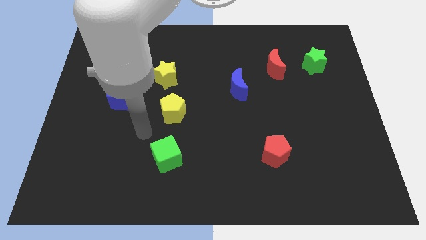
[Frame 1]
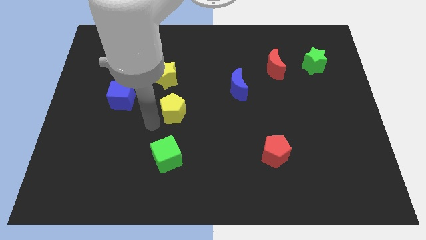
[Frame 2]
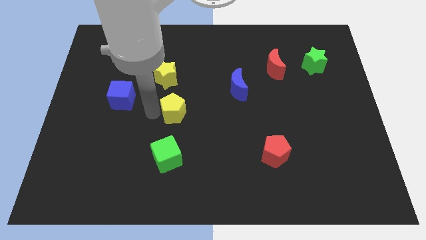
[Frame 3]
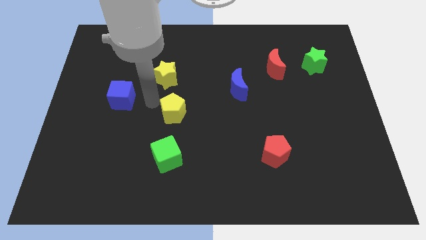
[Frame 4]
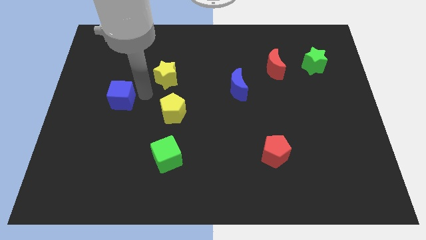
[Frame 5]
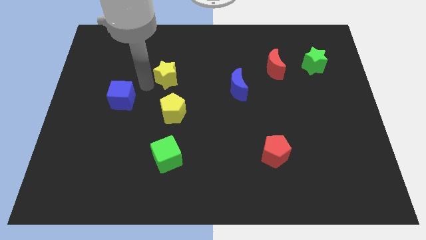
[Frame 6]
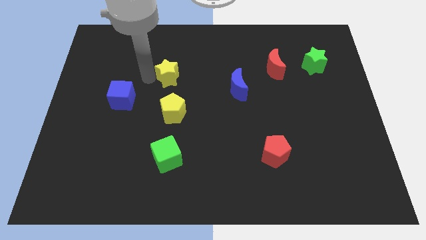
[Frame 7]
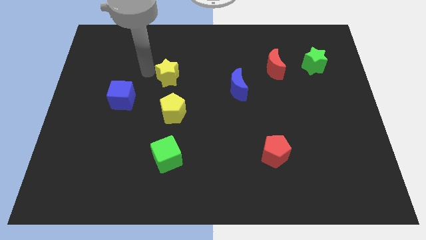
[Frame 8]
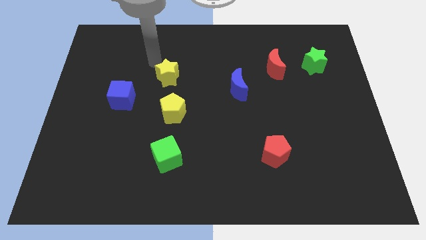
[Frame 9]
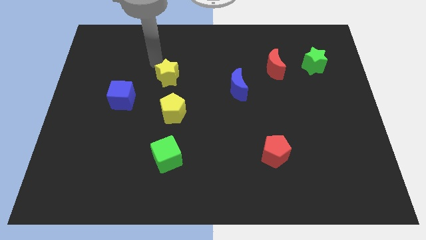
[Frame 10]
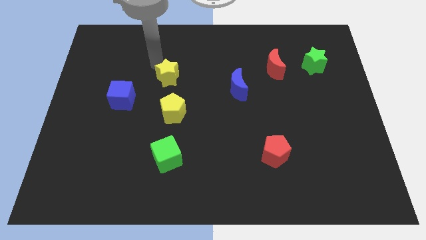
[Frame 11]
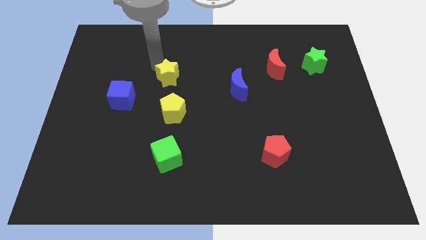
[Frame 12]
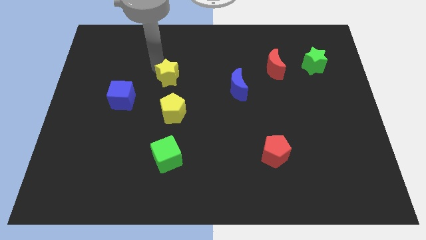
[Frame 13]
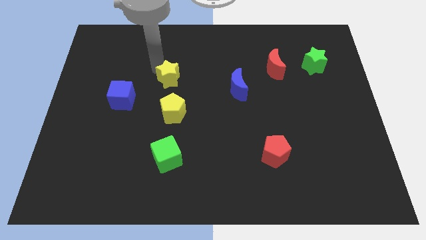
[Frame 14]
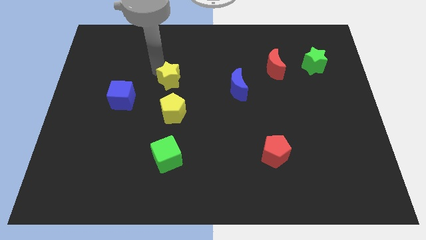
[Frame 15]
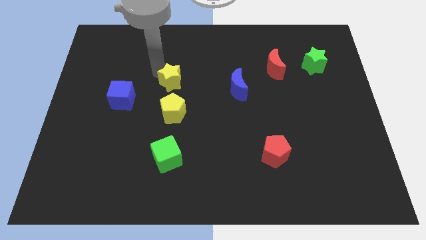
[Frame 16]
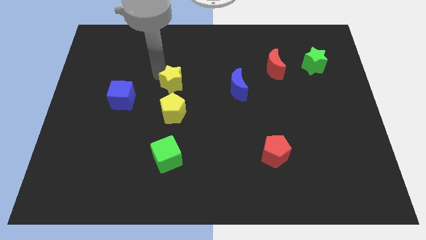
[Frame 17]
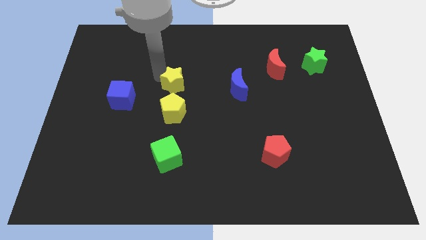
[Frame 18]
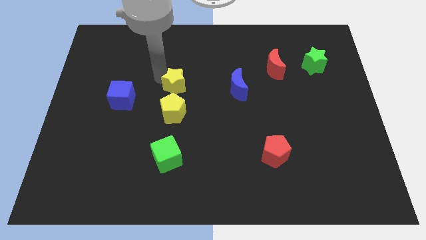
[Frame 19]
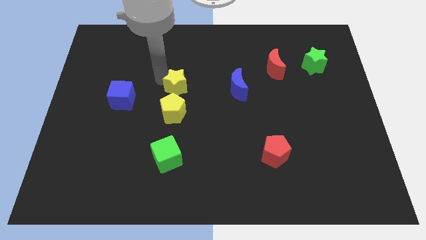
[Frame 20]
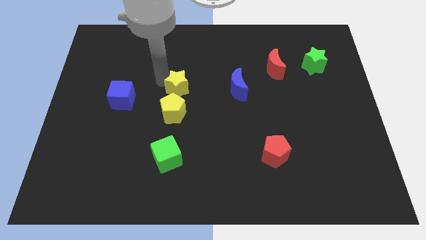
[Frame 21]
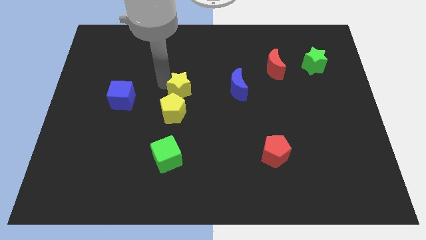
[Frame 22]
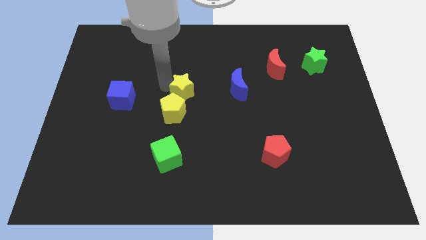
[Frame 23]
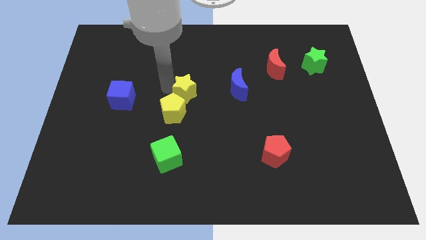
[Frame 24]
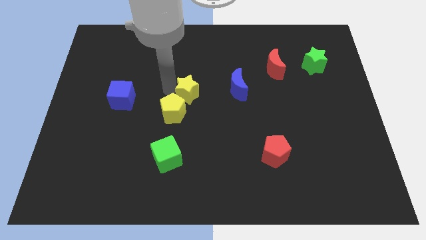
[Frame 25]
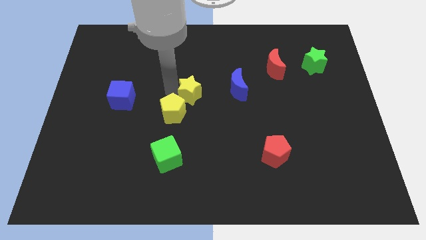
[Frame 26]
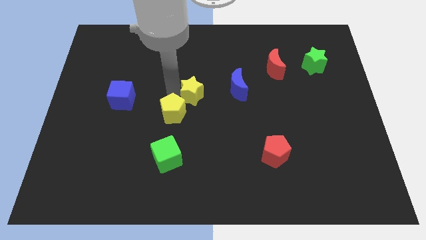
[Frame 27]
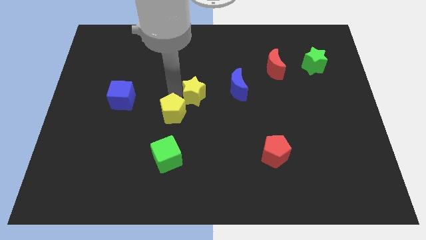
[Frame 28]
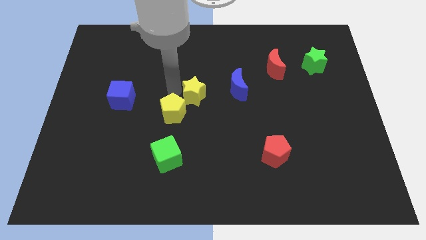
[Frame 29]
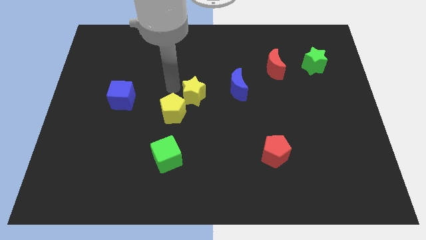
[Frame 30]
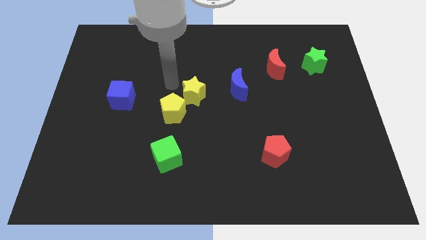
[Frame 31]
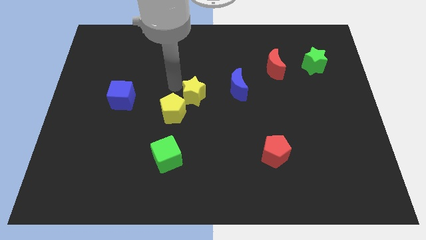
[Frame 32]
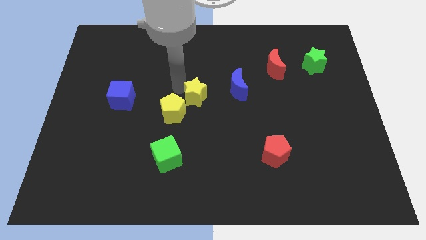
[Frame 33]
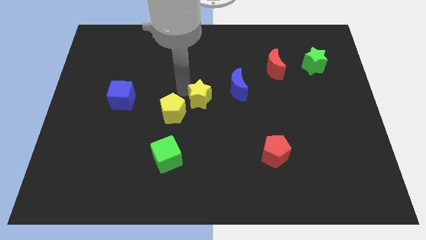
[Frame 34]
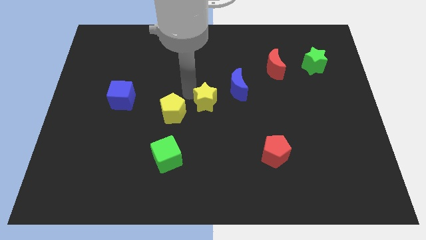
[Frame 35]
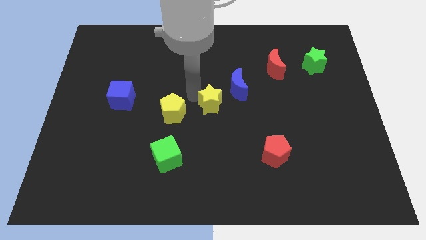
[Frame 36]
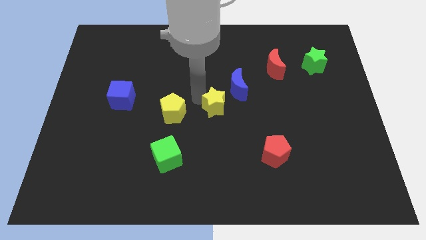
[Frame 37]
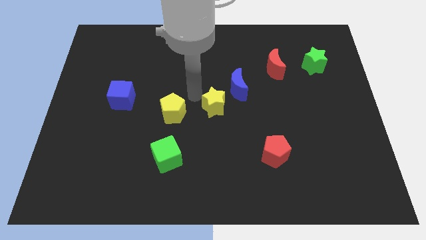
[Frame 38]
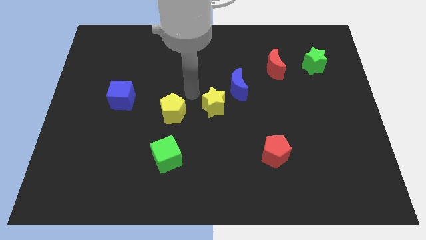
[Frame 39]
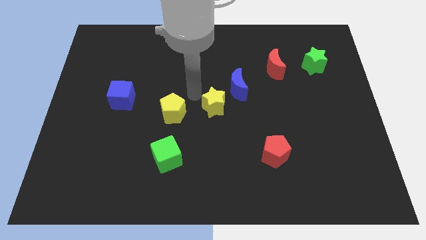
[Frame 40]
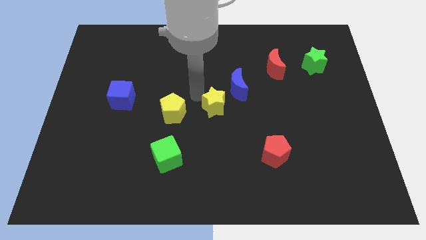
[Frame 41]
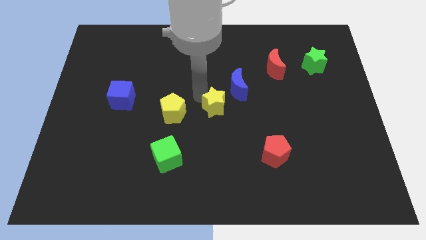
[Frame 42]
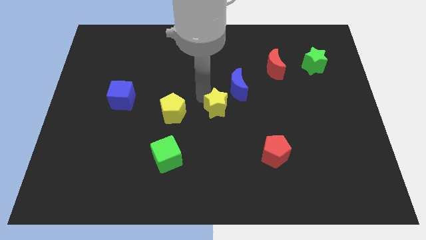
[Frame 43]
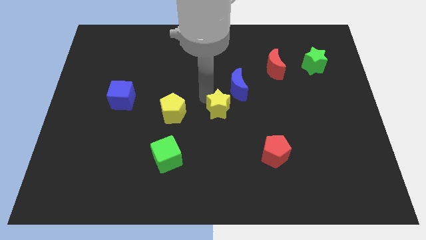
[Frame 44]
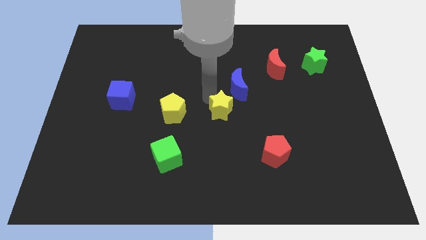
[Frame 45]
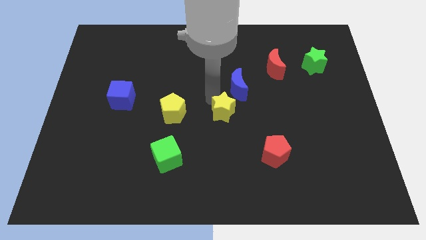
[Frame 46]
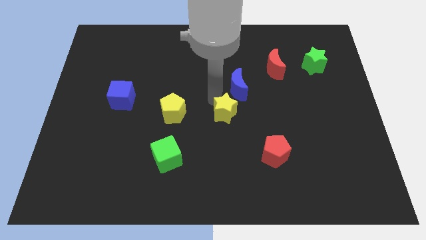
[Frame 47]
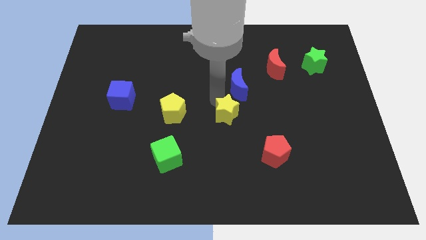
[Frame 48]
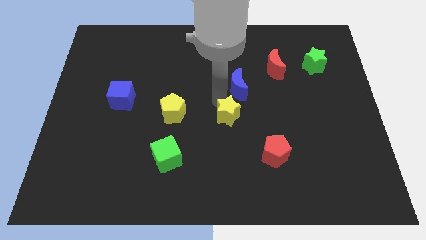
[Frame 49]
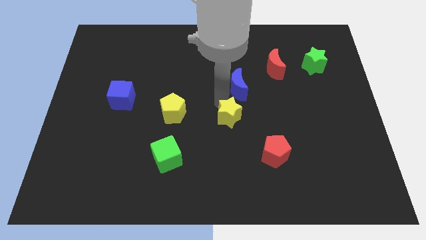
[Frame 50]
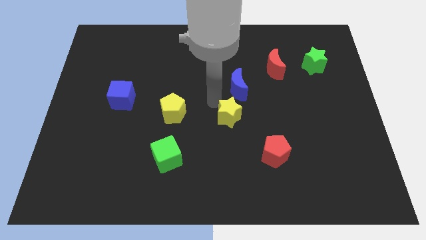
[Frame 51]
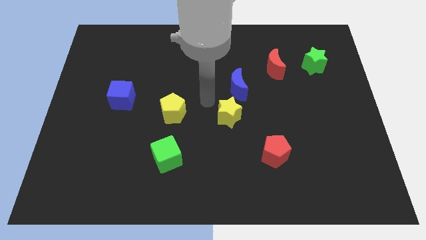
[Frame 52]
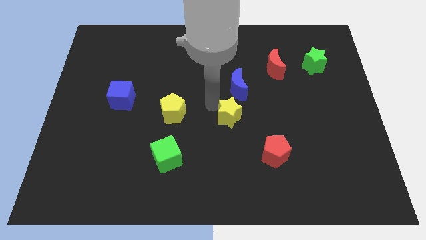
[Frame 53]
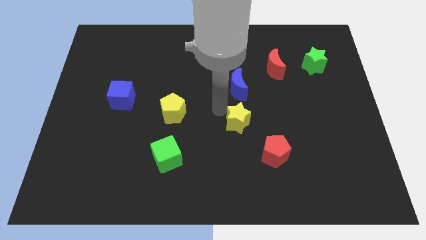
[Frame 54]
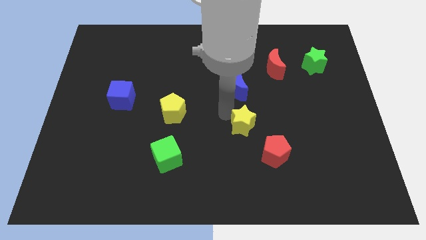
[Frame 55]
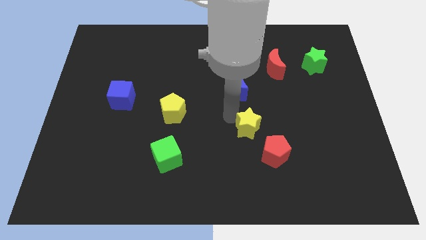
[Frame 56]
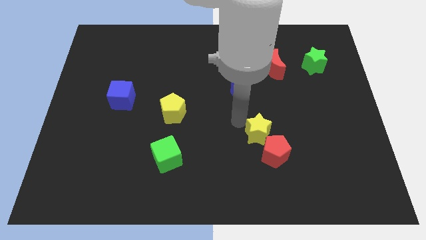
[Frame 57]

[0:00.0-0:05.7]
move the yellow star next to the red pentagon
